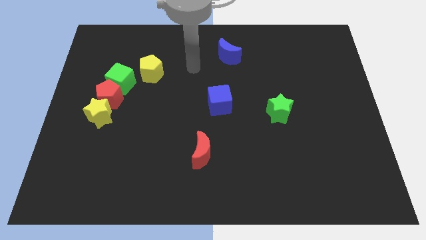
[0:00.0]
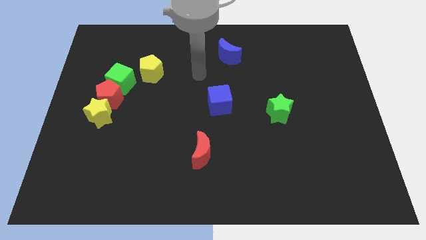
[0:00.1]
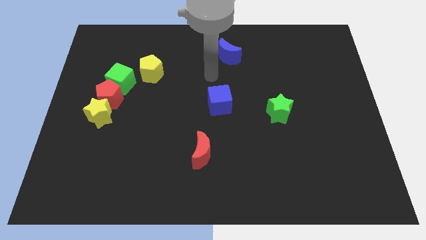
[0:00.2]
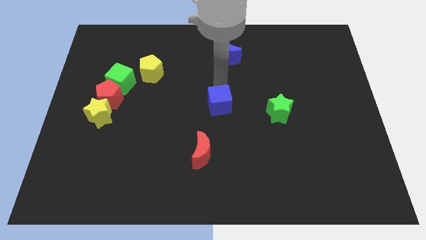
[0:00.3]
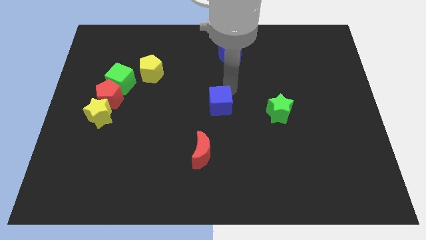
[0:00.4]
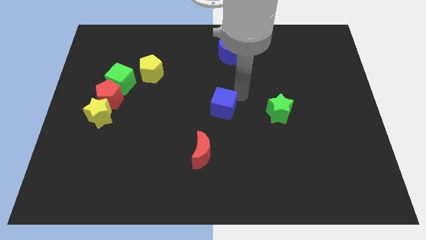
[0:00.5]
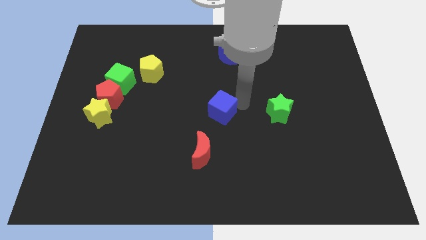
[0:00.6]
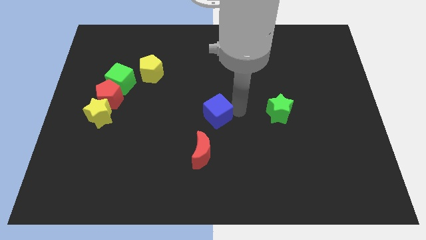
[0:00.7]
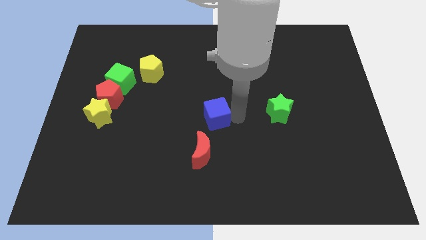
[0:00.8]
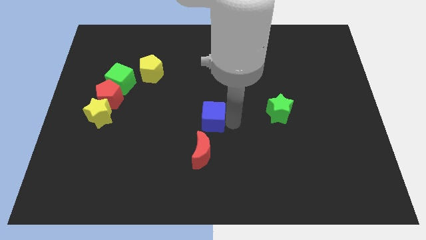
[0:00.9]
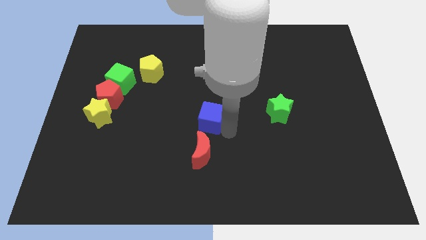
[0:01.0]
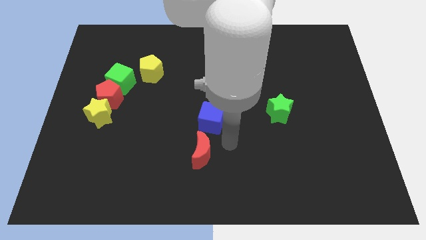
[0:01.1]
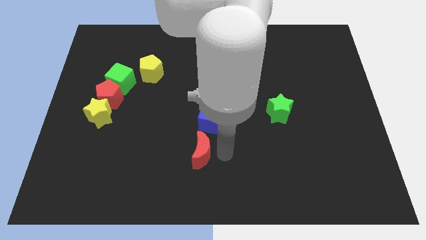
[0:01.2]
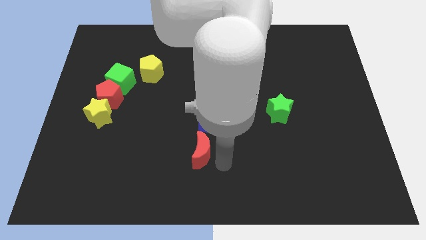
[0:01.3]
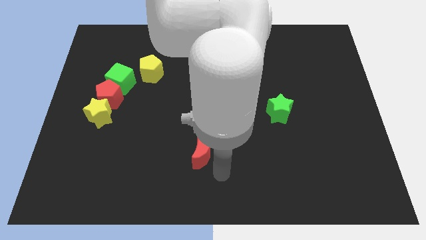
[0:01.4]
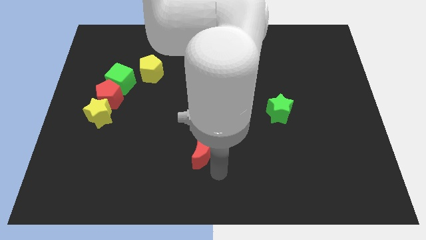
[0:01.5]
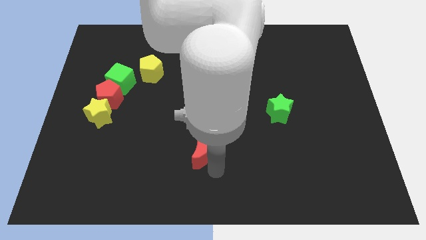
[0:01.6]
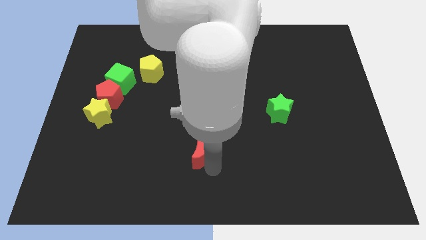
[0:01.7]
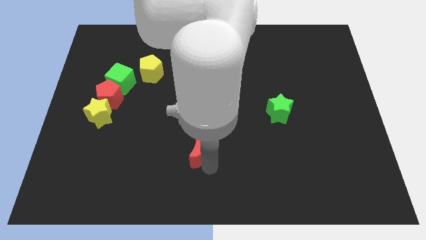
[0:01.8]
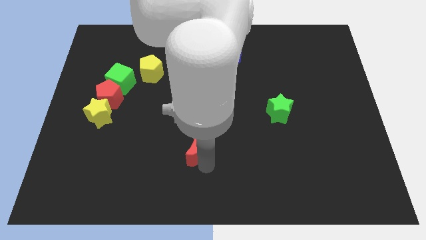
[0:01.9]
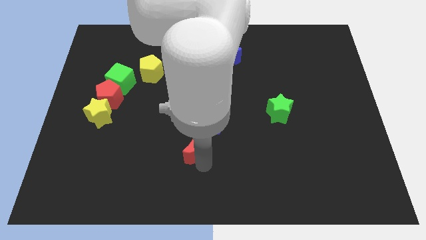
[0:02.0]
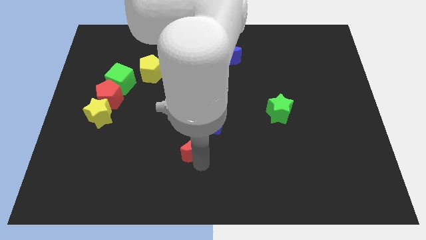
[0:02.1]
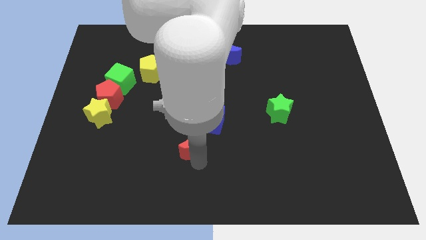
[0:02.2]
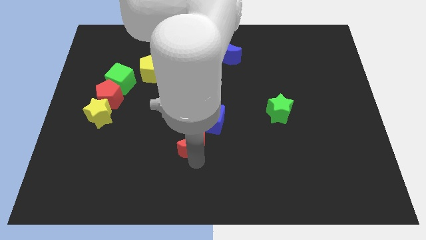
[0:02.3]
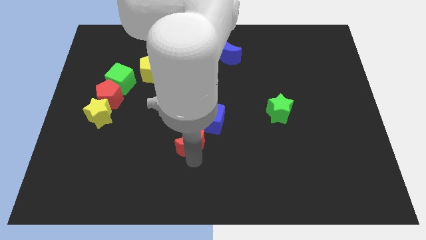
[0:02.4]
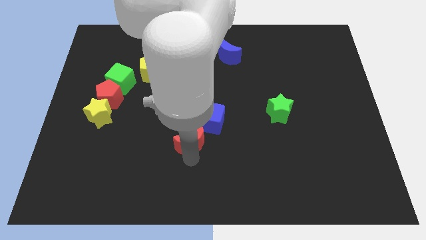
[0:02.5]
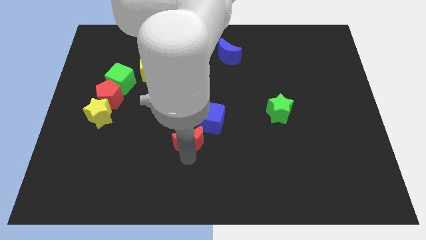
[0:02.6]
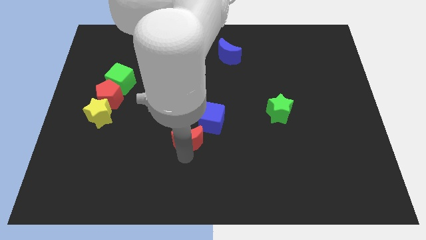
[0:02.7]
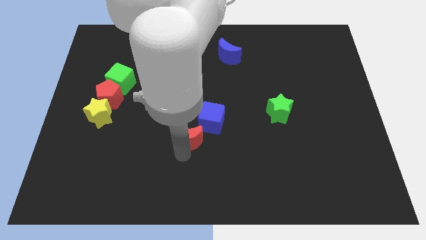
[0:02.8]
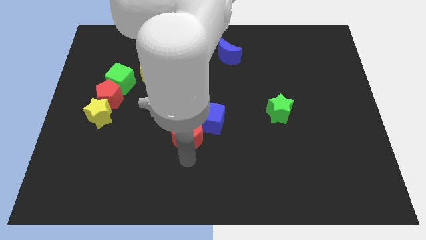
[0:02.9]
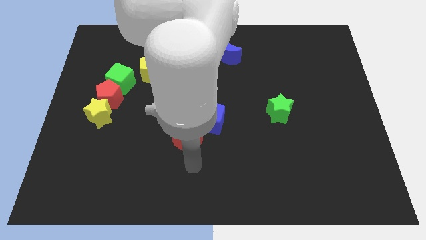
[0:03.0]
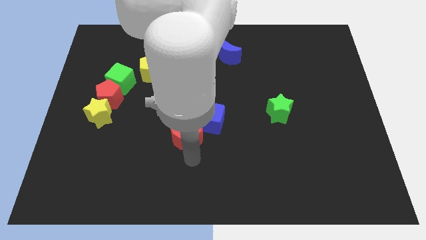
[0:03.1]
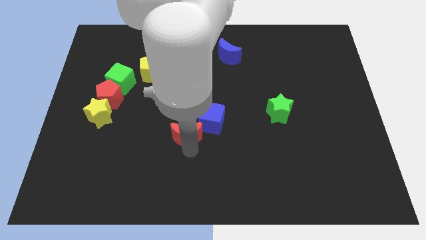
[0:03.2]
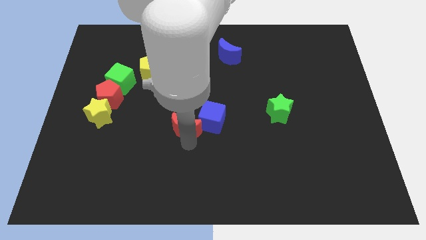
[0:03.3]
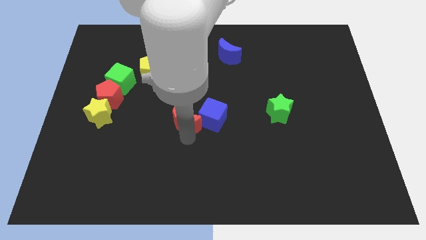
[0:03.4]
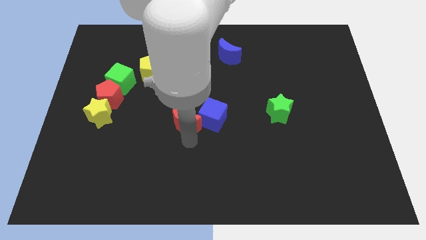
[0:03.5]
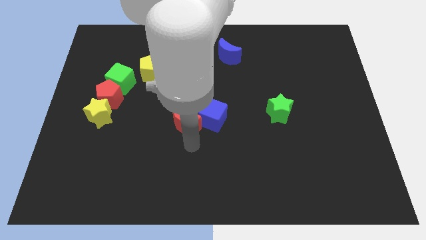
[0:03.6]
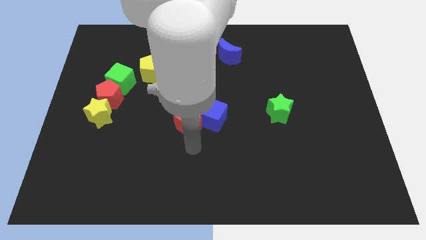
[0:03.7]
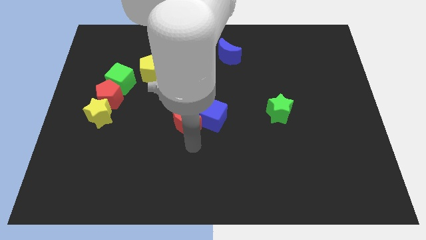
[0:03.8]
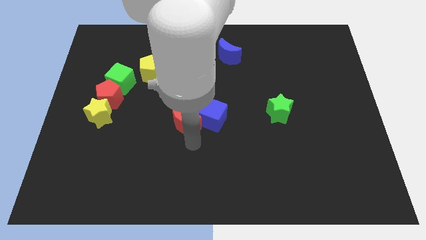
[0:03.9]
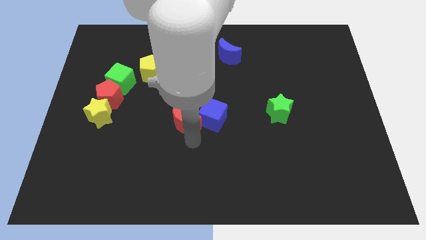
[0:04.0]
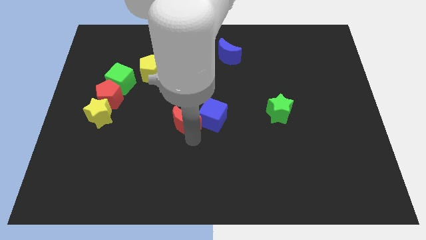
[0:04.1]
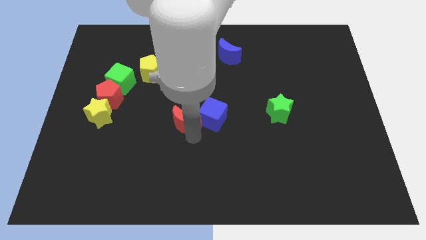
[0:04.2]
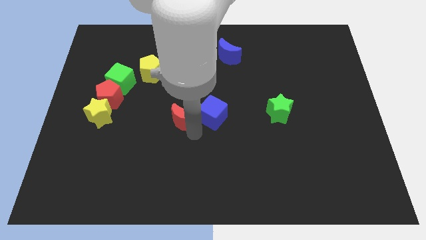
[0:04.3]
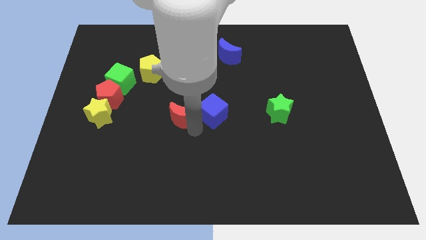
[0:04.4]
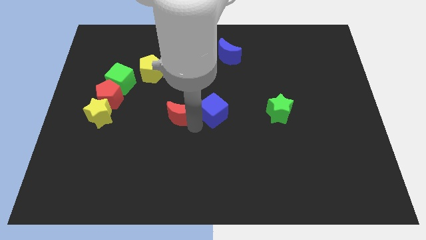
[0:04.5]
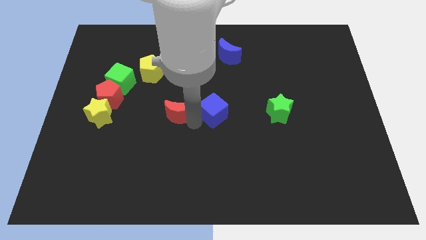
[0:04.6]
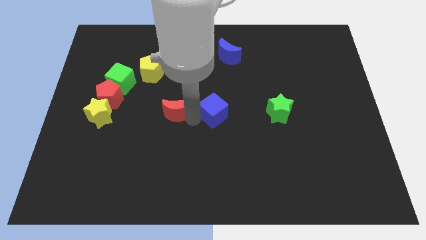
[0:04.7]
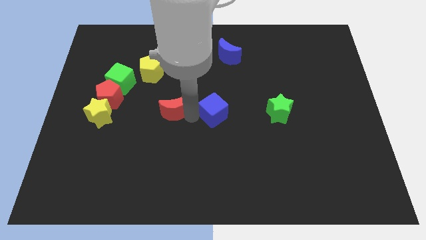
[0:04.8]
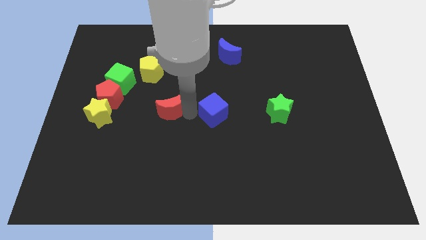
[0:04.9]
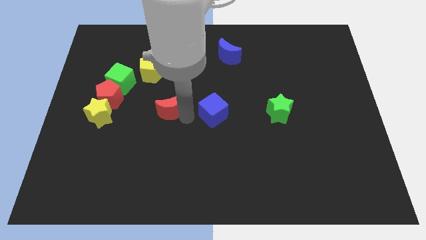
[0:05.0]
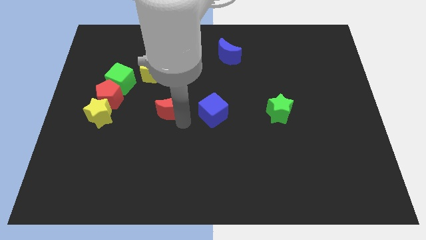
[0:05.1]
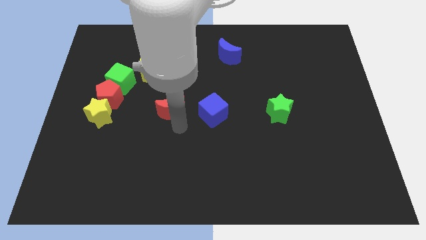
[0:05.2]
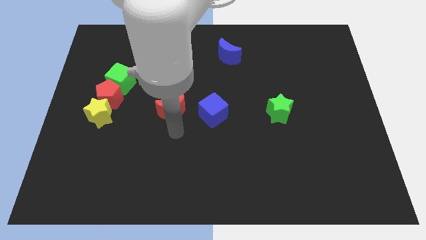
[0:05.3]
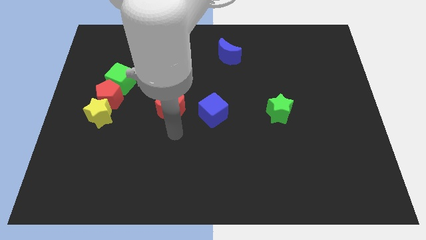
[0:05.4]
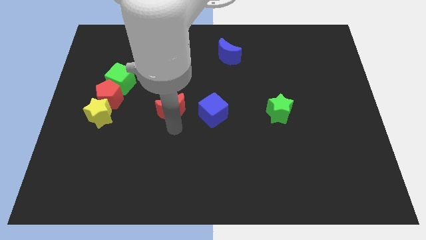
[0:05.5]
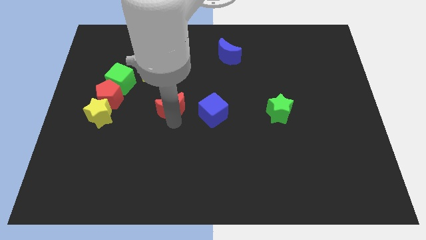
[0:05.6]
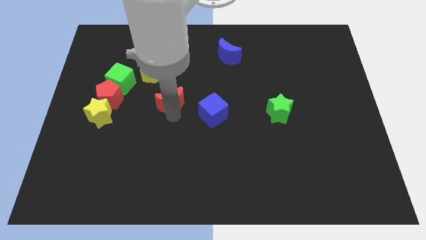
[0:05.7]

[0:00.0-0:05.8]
push the red moon to the bottom right side of the yellow pentagon

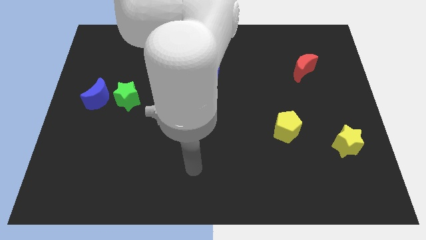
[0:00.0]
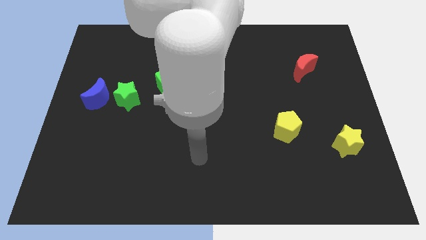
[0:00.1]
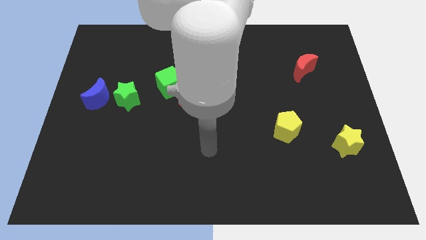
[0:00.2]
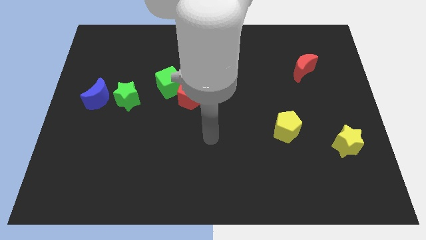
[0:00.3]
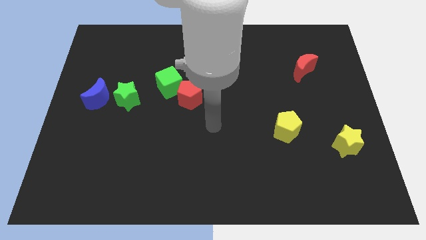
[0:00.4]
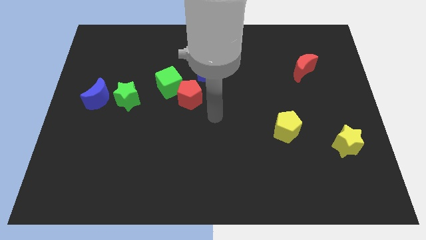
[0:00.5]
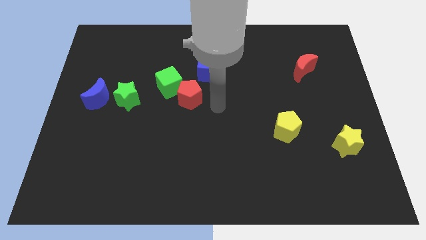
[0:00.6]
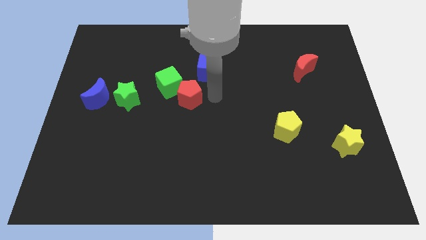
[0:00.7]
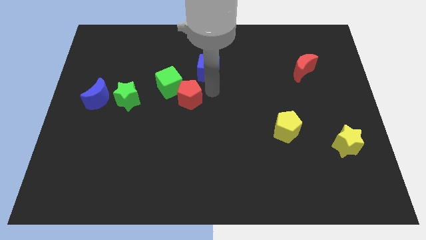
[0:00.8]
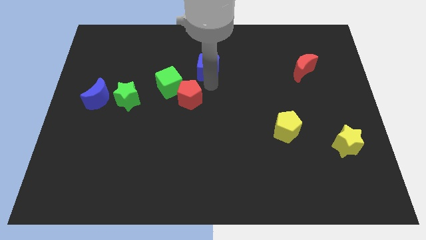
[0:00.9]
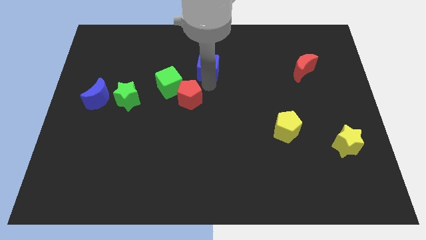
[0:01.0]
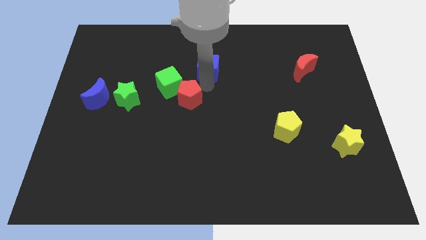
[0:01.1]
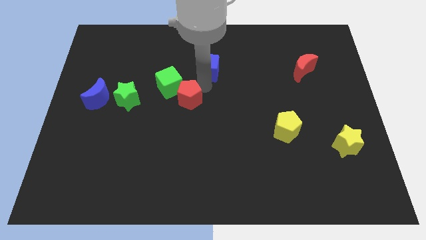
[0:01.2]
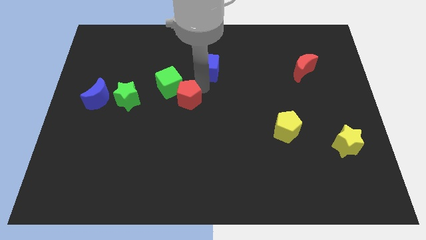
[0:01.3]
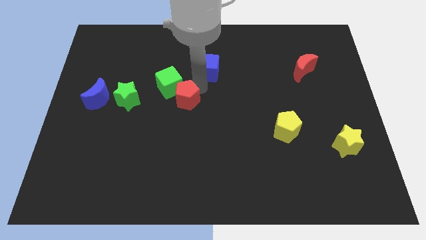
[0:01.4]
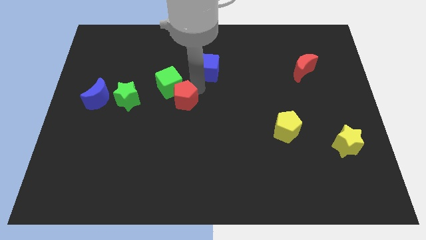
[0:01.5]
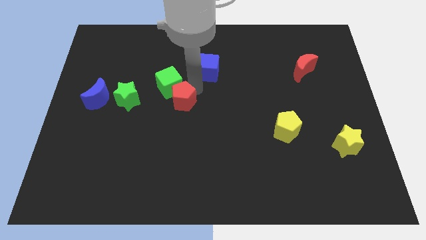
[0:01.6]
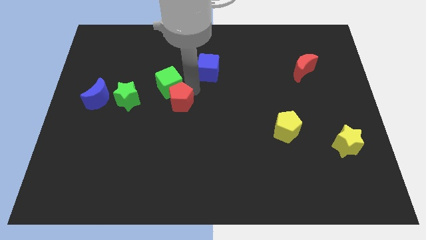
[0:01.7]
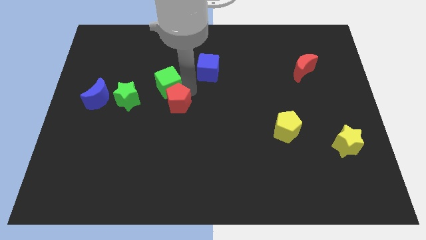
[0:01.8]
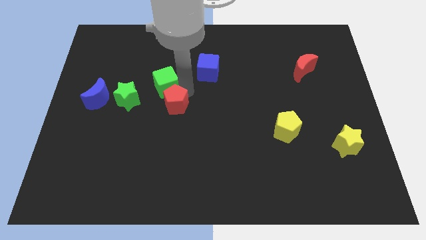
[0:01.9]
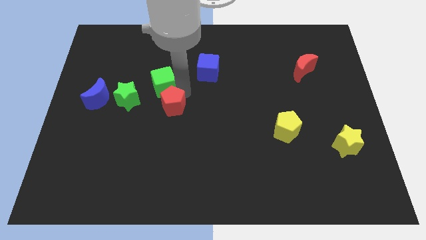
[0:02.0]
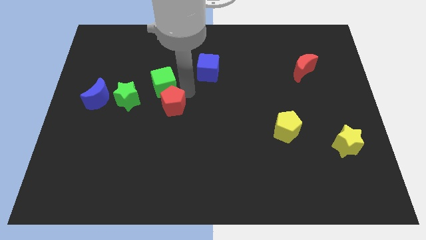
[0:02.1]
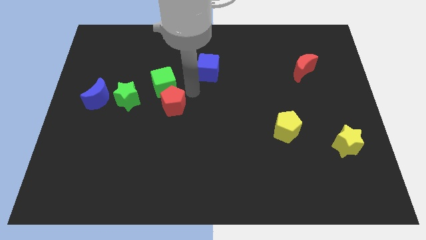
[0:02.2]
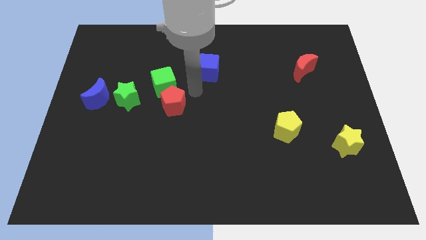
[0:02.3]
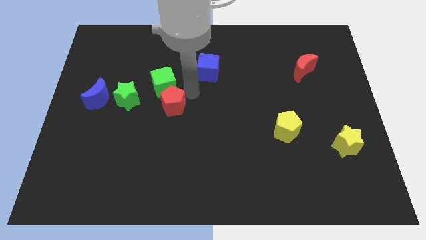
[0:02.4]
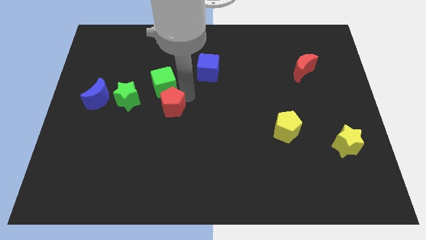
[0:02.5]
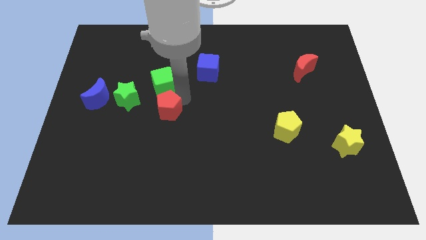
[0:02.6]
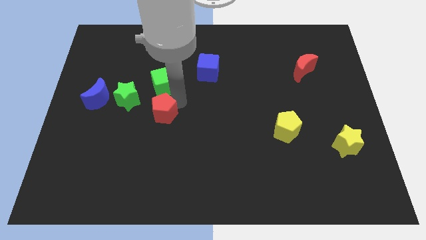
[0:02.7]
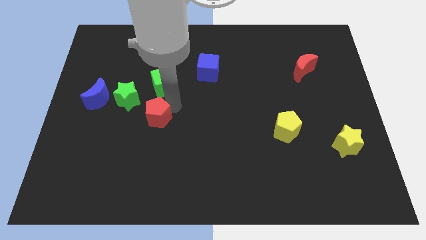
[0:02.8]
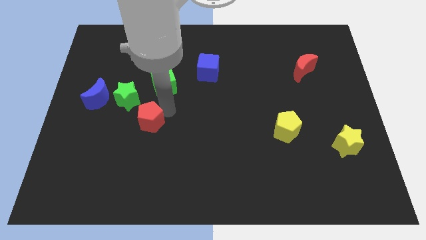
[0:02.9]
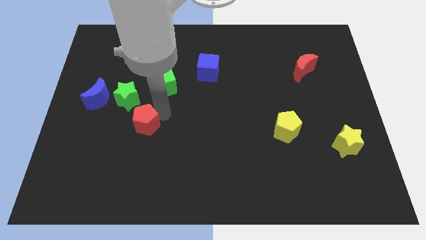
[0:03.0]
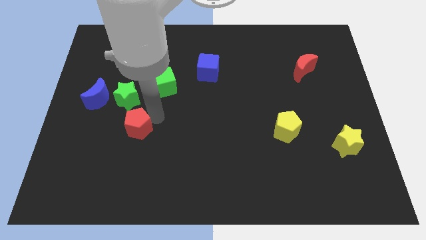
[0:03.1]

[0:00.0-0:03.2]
put the red pentagon below the green star
